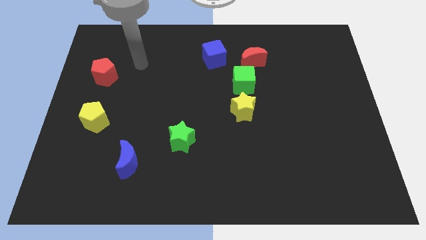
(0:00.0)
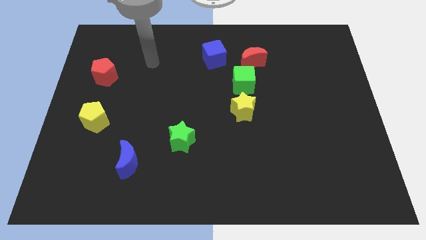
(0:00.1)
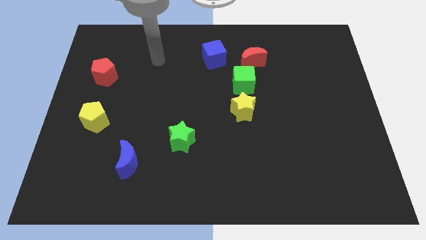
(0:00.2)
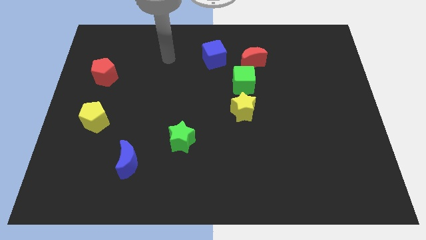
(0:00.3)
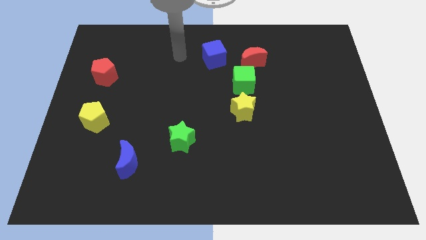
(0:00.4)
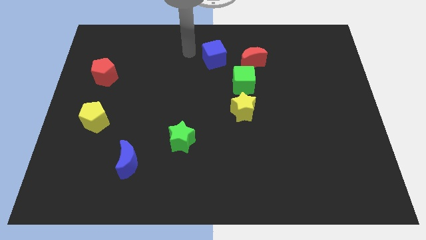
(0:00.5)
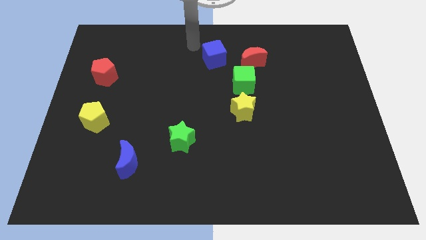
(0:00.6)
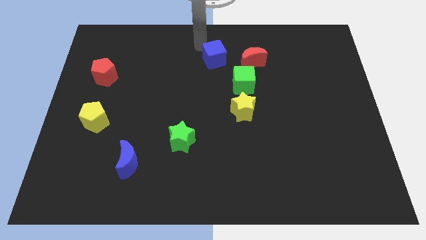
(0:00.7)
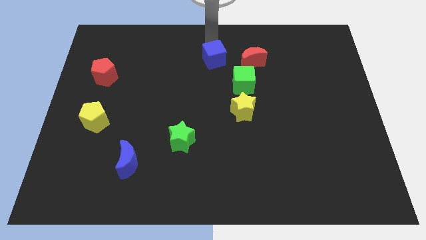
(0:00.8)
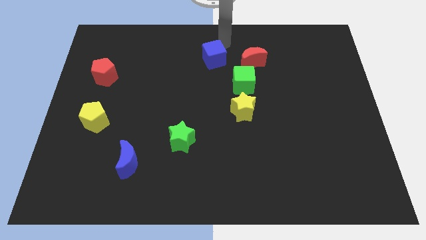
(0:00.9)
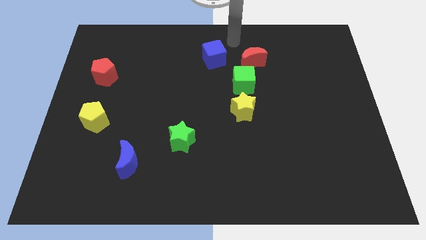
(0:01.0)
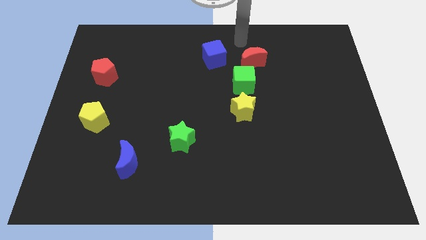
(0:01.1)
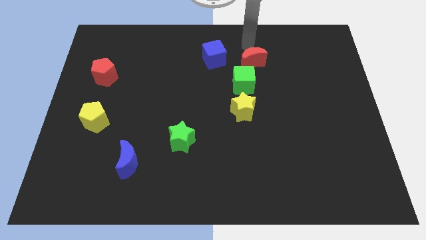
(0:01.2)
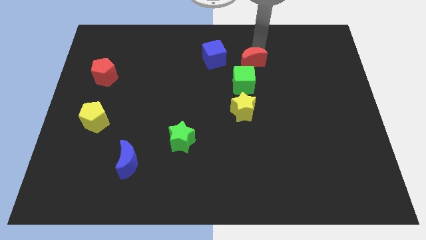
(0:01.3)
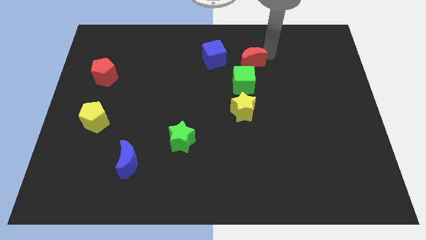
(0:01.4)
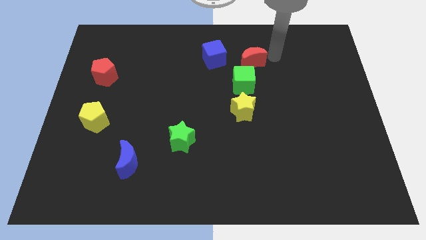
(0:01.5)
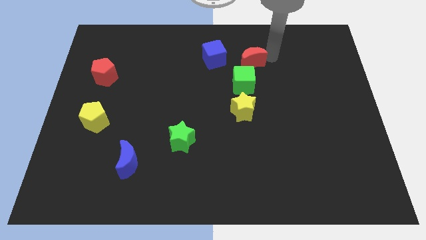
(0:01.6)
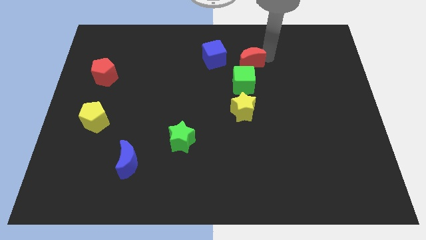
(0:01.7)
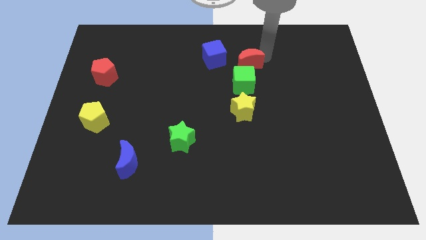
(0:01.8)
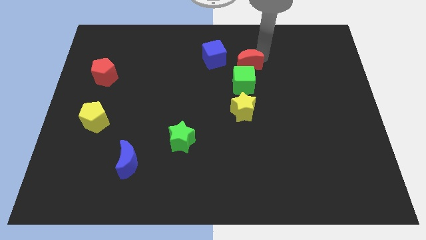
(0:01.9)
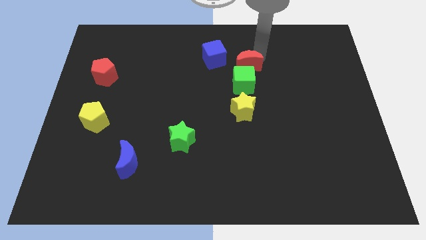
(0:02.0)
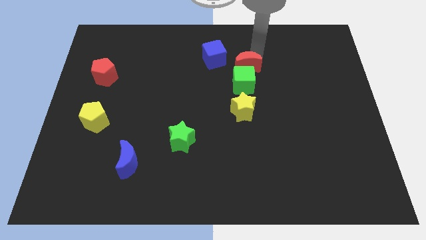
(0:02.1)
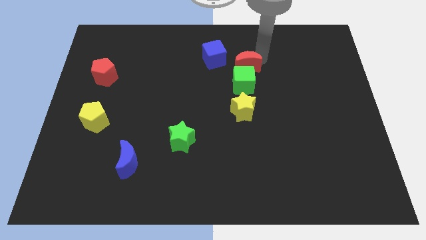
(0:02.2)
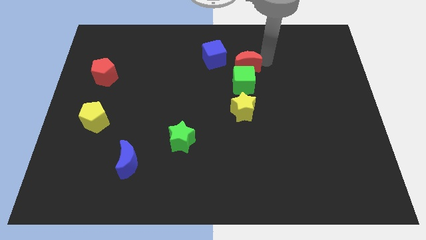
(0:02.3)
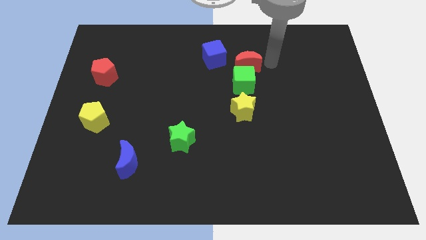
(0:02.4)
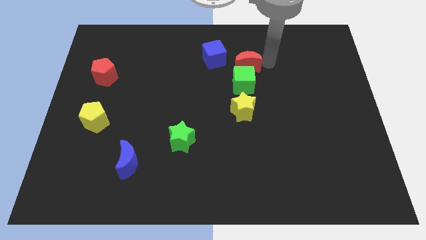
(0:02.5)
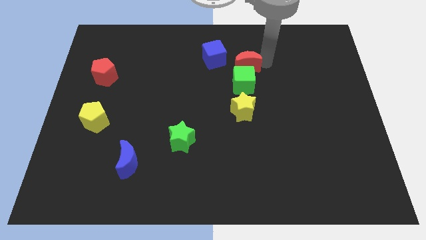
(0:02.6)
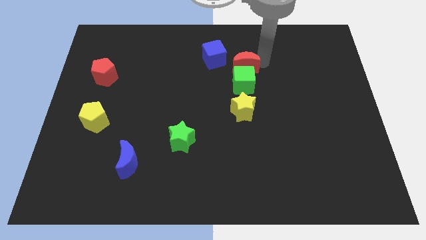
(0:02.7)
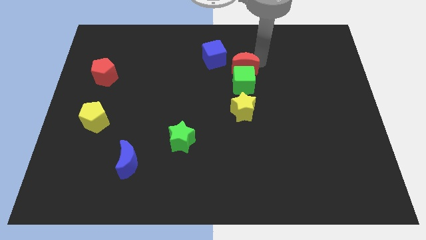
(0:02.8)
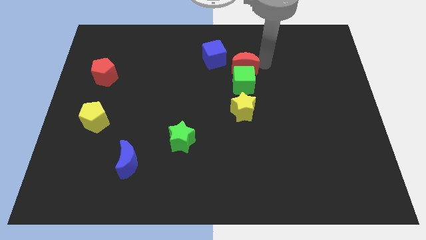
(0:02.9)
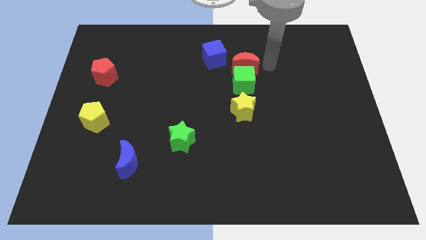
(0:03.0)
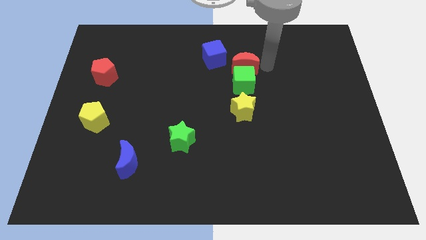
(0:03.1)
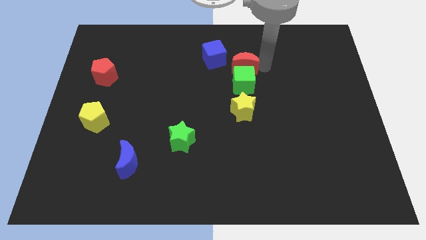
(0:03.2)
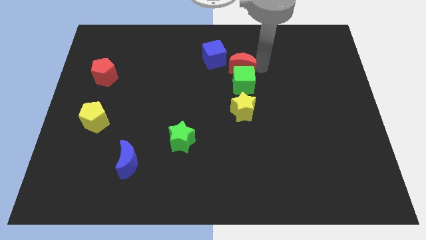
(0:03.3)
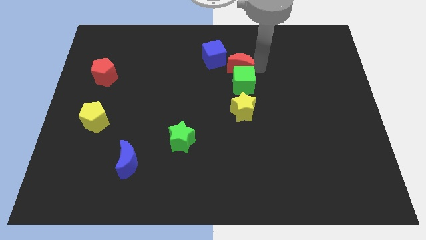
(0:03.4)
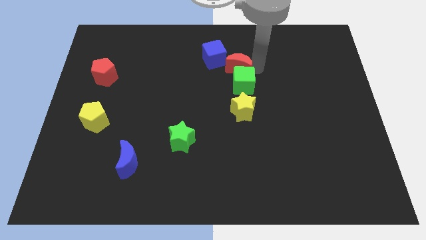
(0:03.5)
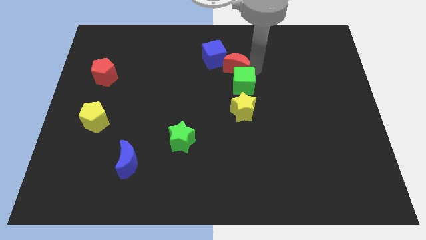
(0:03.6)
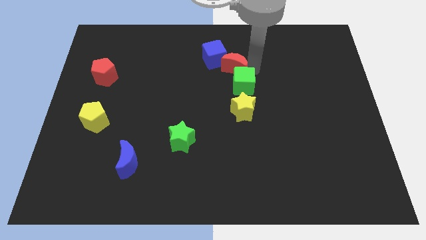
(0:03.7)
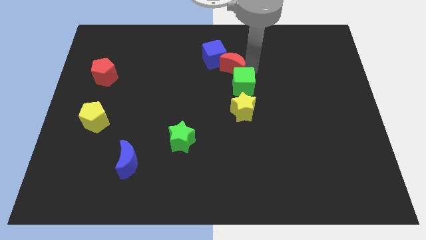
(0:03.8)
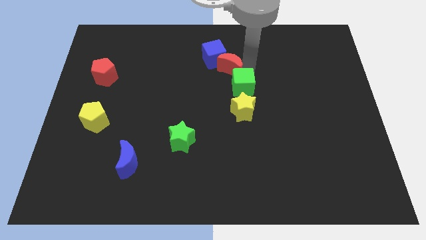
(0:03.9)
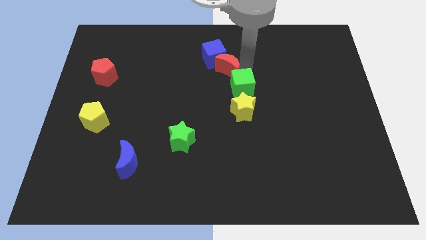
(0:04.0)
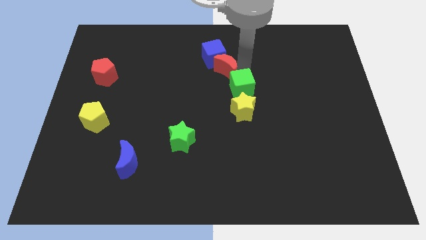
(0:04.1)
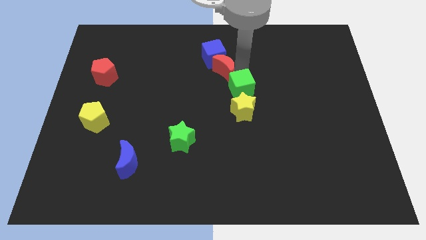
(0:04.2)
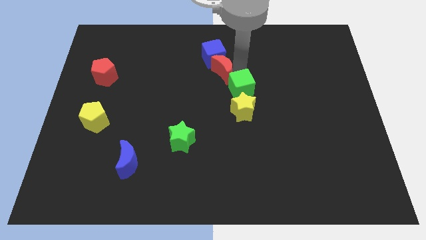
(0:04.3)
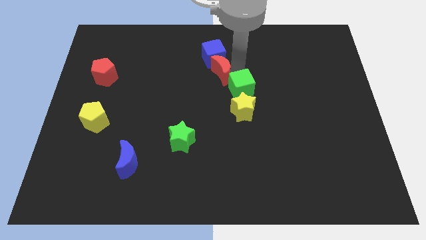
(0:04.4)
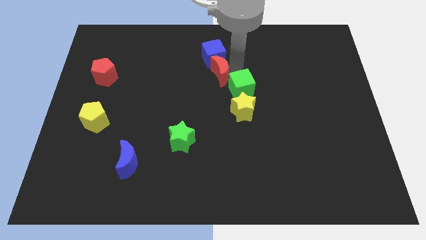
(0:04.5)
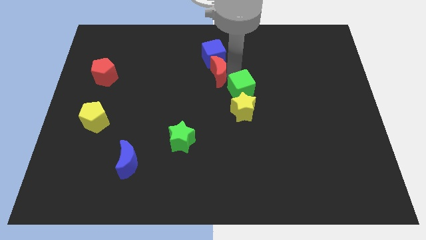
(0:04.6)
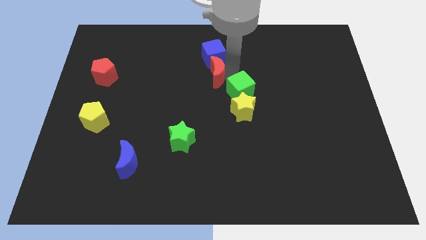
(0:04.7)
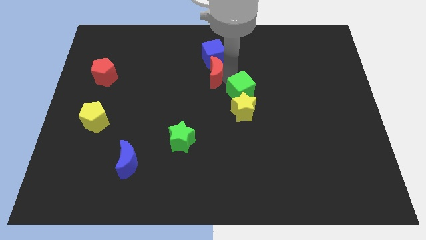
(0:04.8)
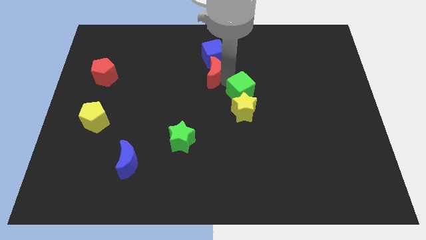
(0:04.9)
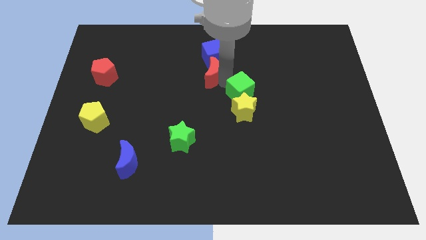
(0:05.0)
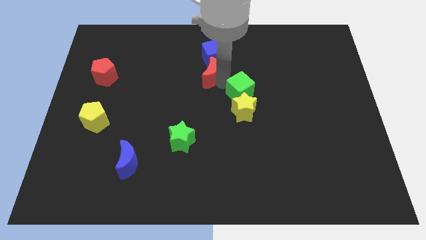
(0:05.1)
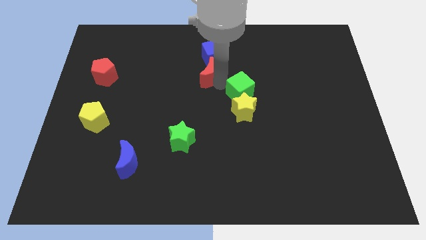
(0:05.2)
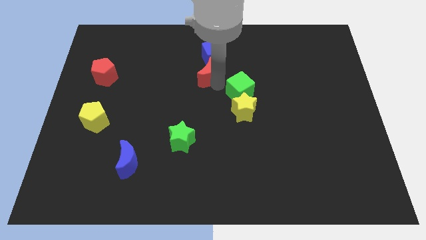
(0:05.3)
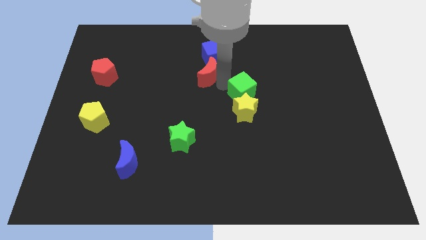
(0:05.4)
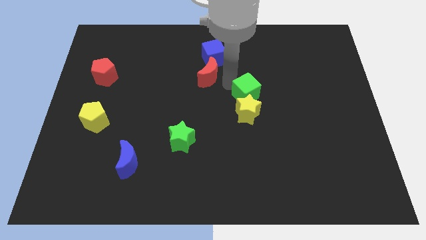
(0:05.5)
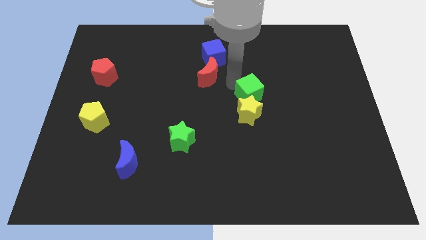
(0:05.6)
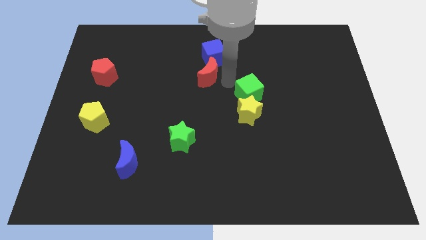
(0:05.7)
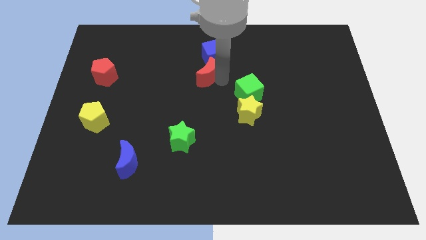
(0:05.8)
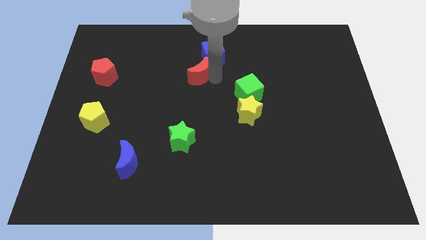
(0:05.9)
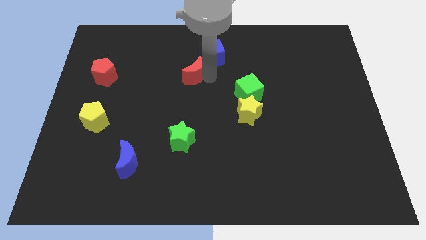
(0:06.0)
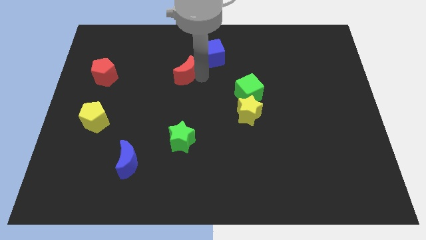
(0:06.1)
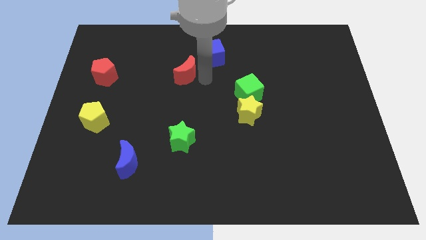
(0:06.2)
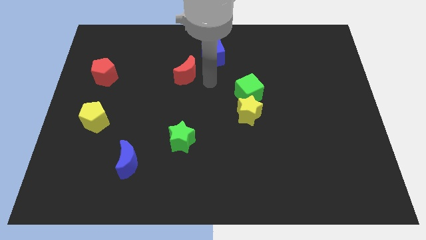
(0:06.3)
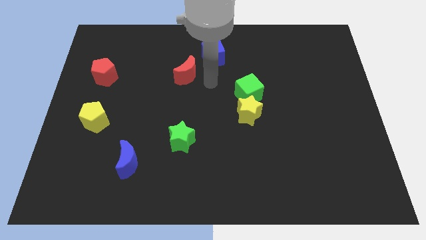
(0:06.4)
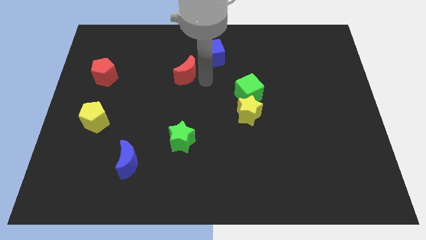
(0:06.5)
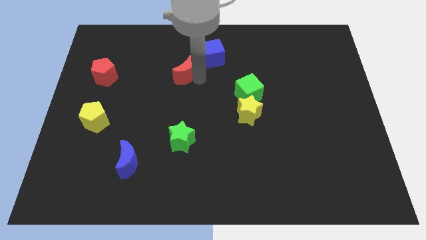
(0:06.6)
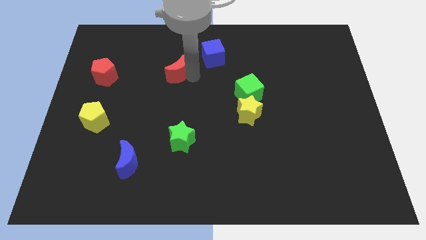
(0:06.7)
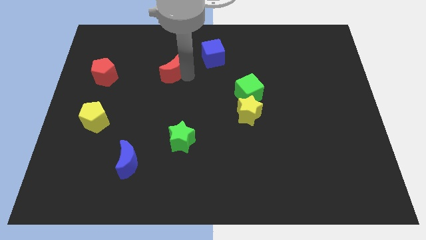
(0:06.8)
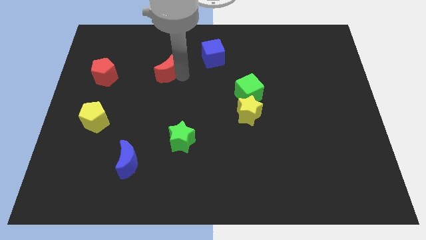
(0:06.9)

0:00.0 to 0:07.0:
push the red moon to the left

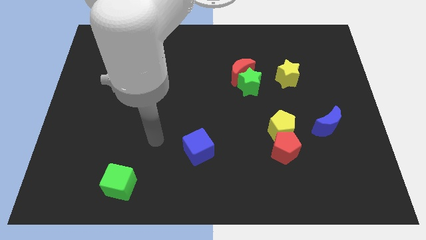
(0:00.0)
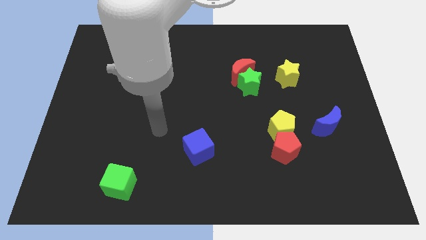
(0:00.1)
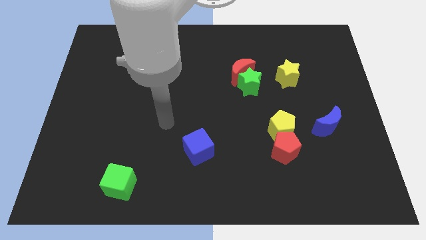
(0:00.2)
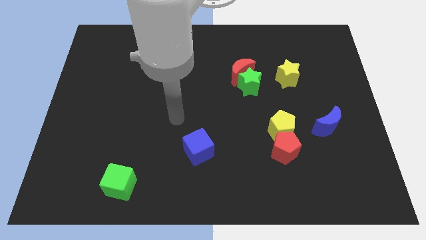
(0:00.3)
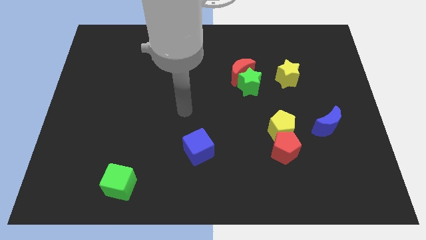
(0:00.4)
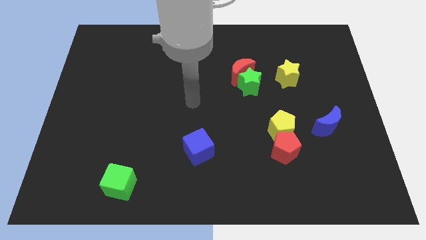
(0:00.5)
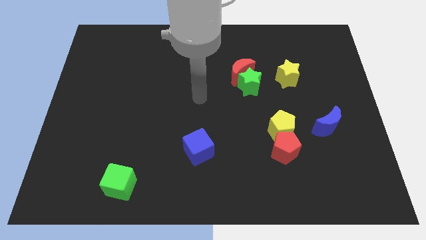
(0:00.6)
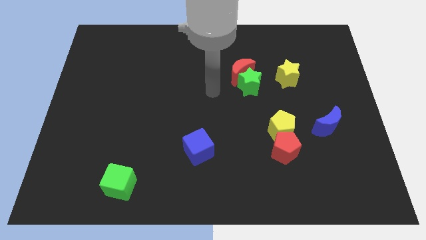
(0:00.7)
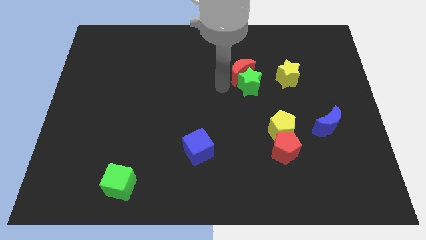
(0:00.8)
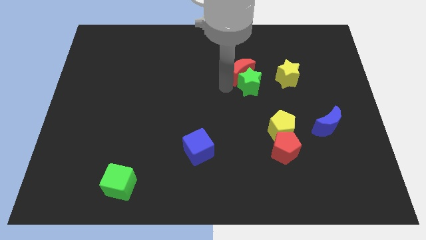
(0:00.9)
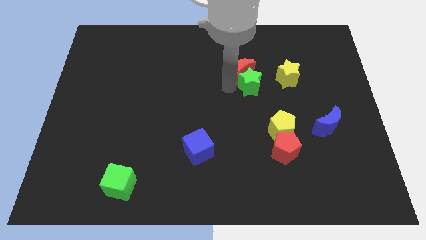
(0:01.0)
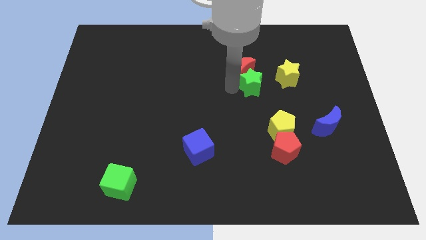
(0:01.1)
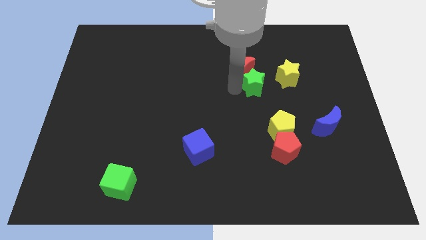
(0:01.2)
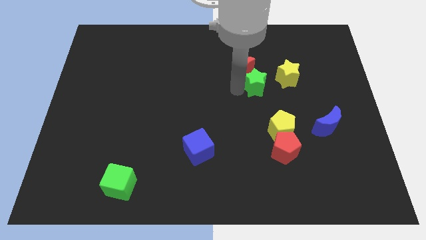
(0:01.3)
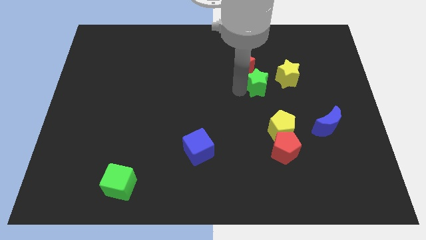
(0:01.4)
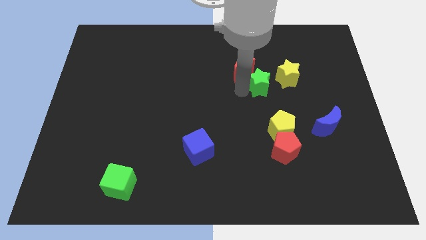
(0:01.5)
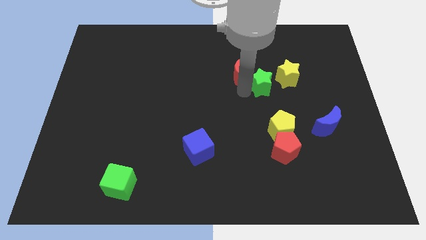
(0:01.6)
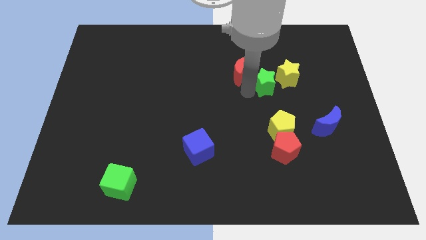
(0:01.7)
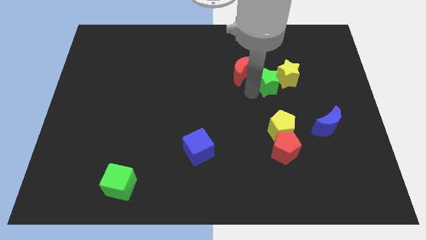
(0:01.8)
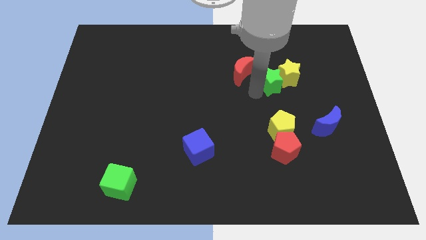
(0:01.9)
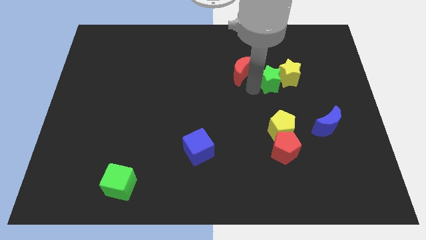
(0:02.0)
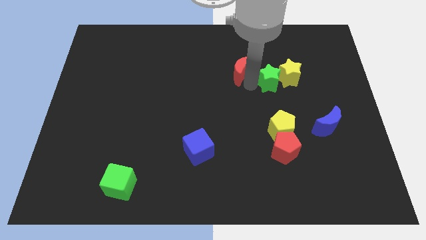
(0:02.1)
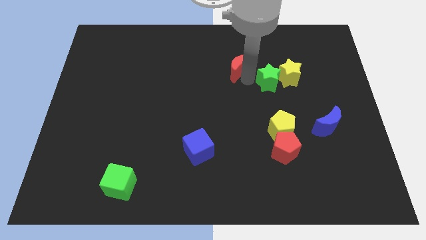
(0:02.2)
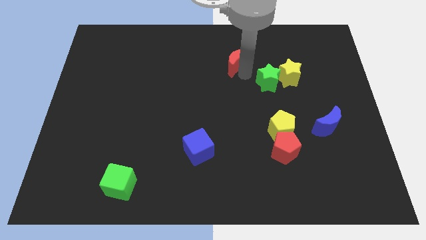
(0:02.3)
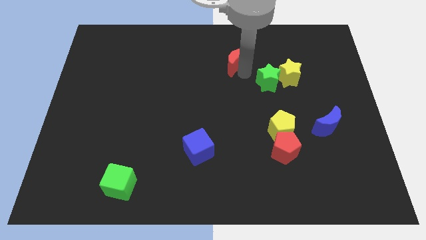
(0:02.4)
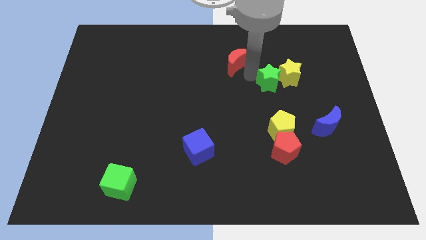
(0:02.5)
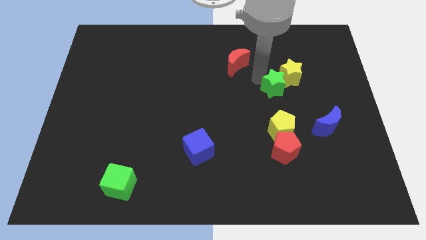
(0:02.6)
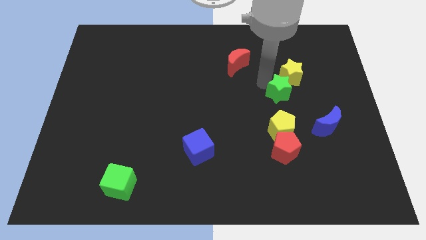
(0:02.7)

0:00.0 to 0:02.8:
slightly slide the green star to the right
